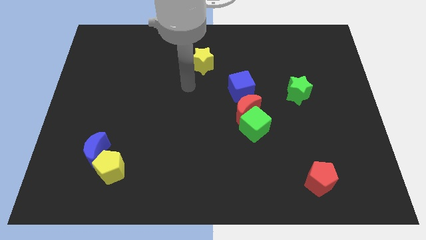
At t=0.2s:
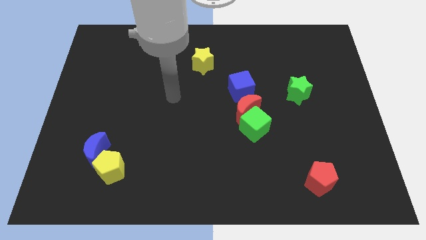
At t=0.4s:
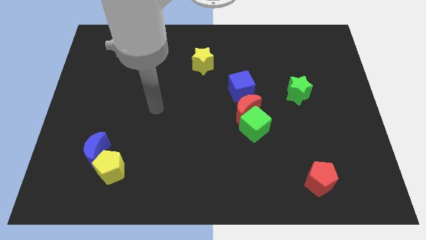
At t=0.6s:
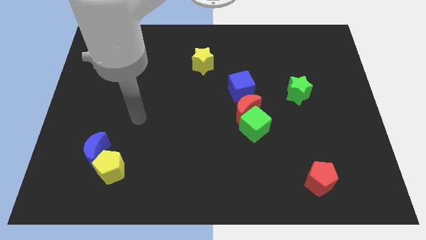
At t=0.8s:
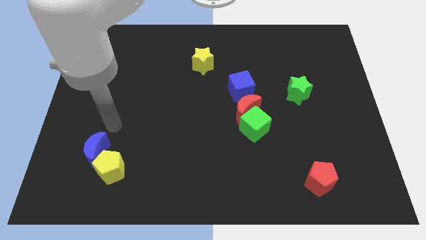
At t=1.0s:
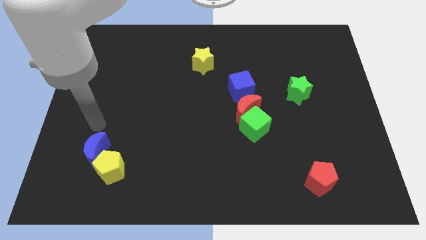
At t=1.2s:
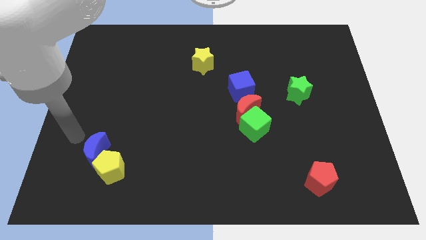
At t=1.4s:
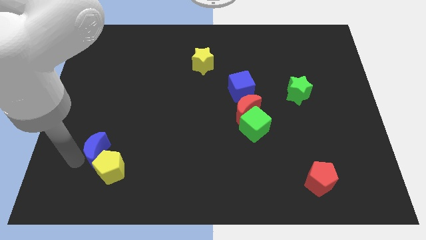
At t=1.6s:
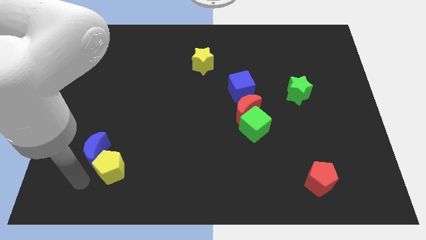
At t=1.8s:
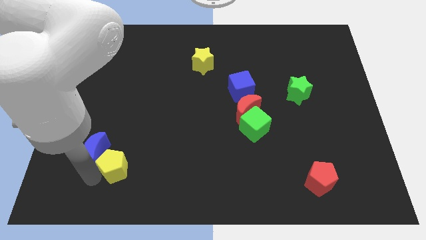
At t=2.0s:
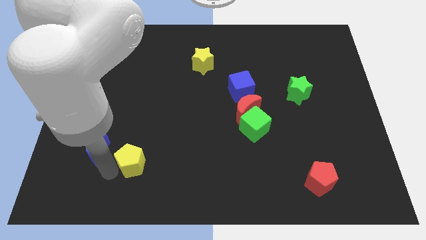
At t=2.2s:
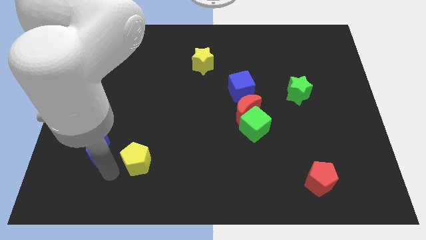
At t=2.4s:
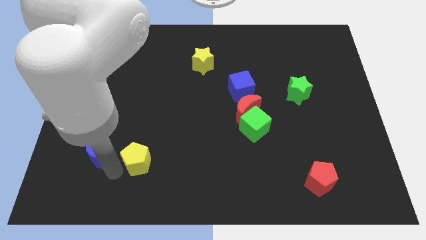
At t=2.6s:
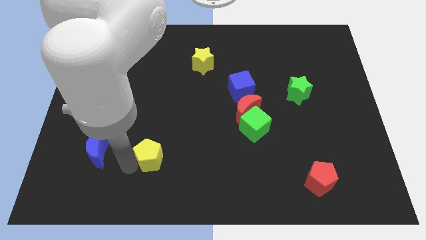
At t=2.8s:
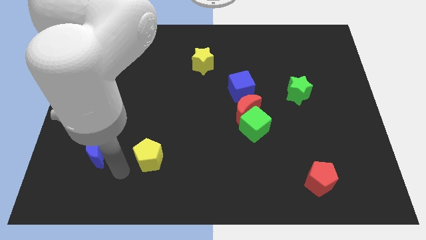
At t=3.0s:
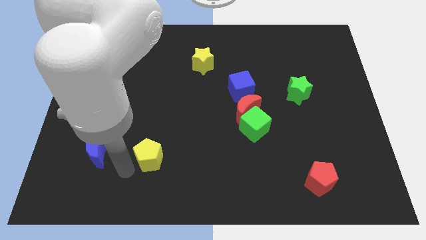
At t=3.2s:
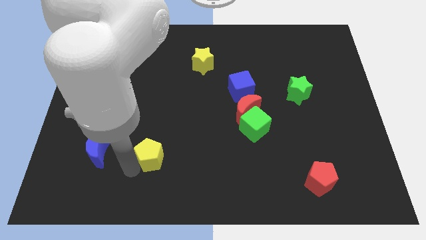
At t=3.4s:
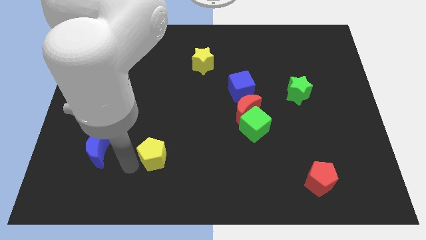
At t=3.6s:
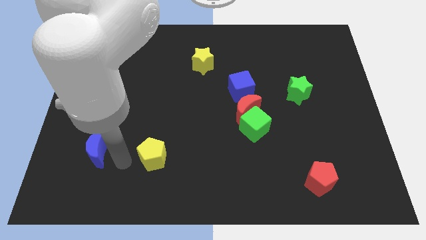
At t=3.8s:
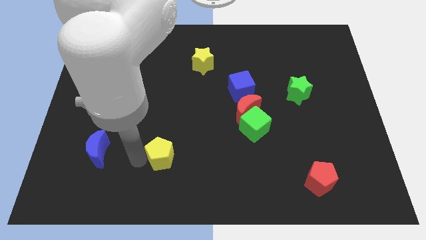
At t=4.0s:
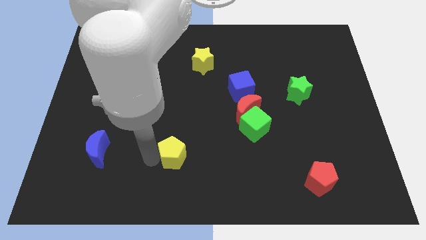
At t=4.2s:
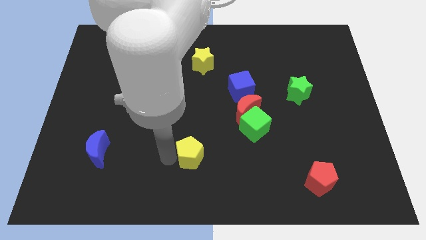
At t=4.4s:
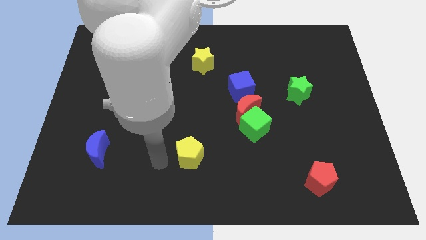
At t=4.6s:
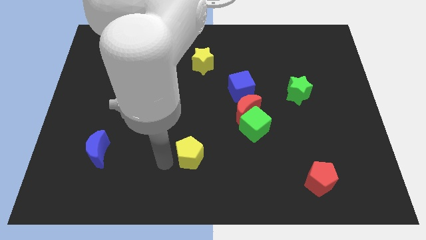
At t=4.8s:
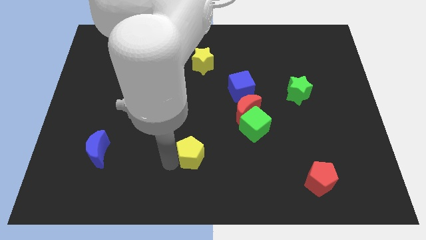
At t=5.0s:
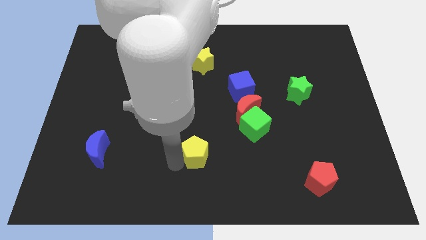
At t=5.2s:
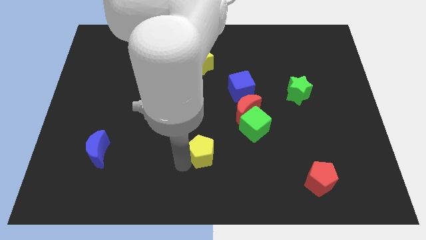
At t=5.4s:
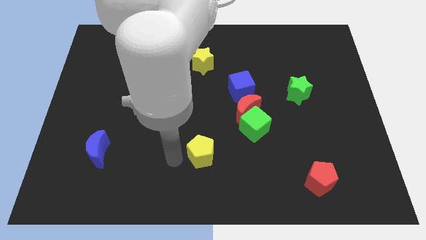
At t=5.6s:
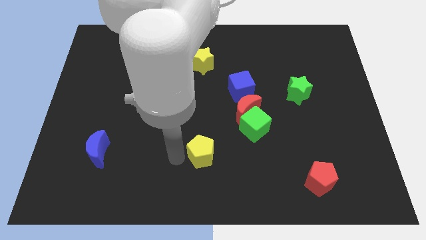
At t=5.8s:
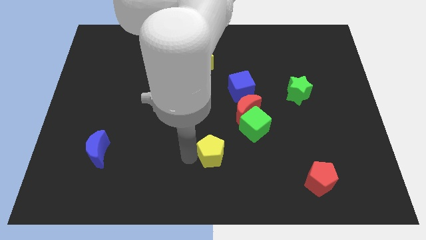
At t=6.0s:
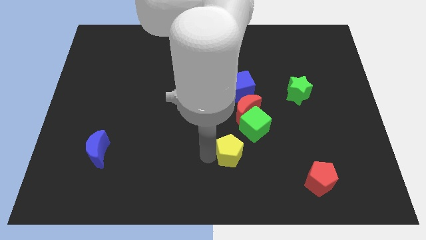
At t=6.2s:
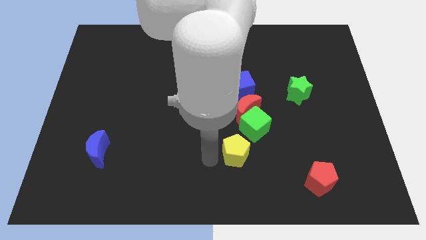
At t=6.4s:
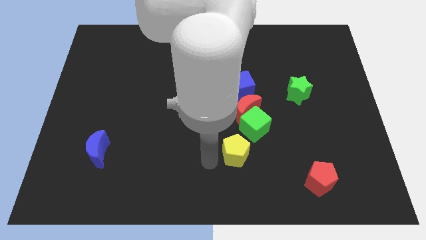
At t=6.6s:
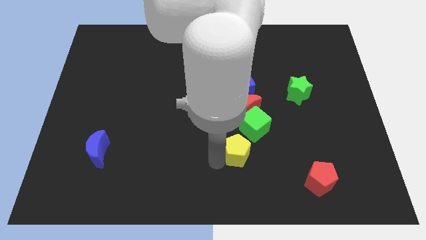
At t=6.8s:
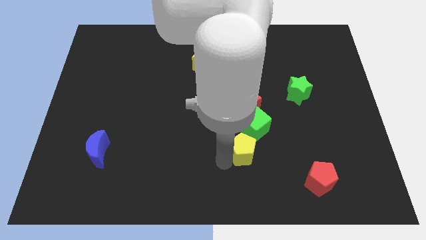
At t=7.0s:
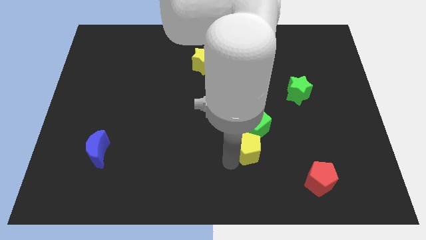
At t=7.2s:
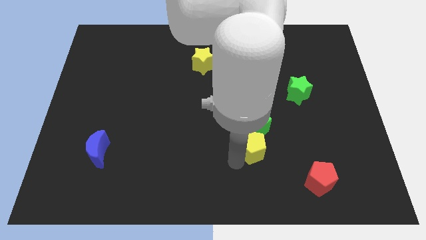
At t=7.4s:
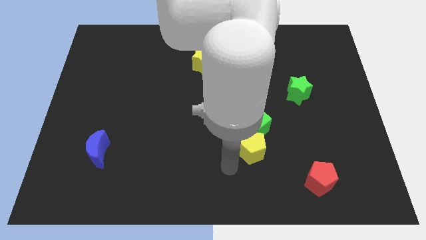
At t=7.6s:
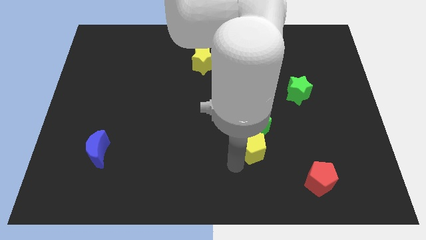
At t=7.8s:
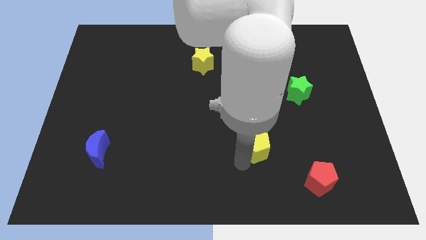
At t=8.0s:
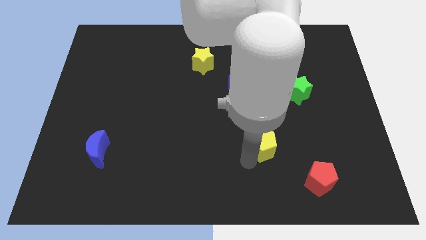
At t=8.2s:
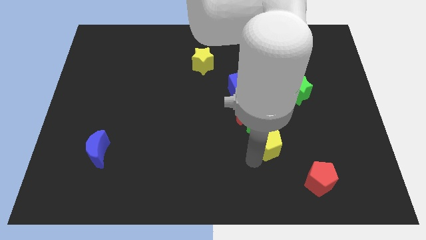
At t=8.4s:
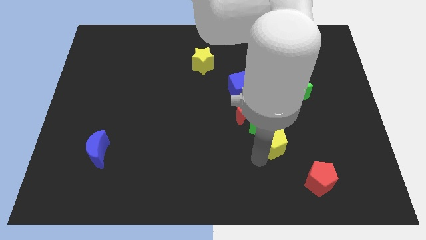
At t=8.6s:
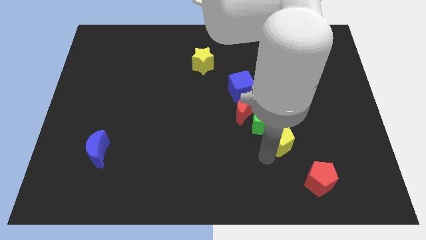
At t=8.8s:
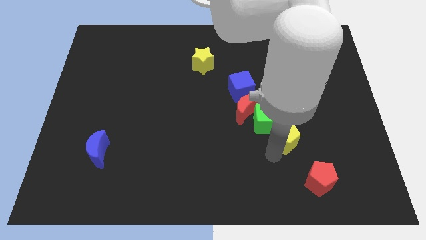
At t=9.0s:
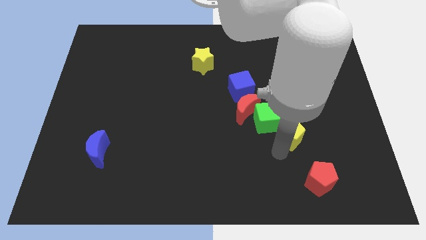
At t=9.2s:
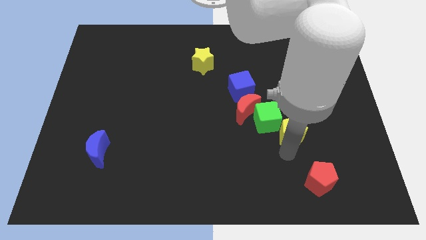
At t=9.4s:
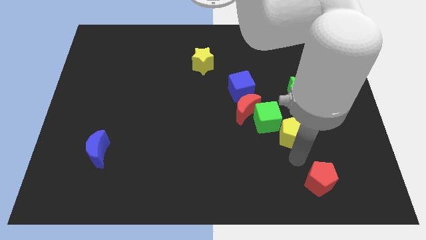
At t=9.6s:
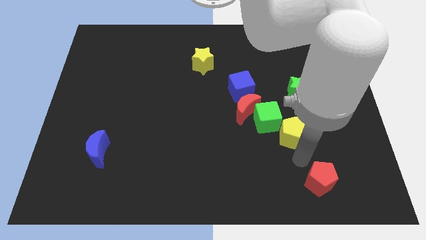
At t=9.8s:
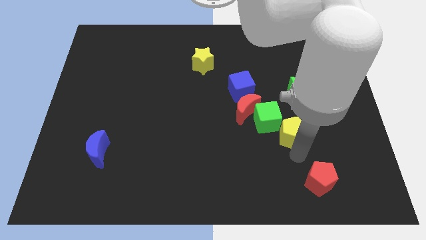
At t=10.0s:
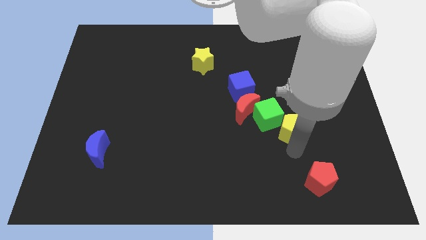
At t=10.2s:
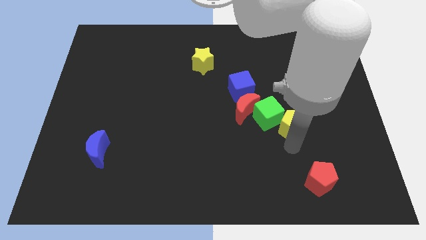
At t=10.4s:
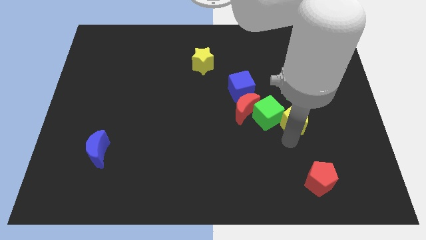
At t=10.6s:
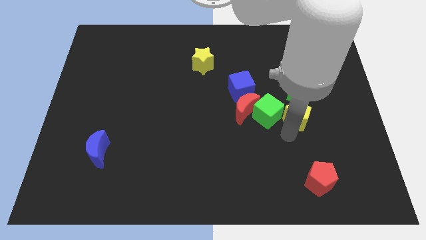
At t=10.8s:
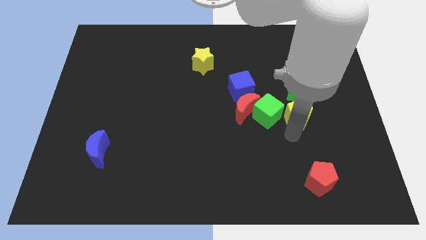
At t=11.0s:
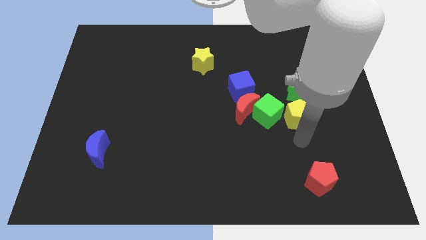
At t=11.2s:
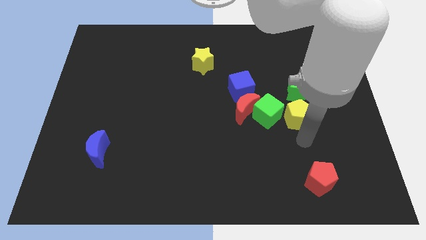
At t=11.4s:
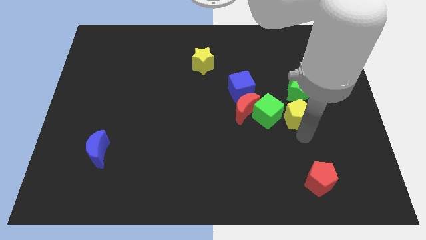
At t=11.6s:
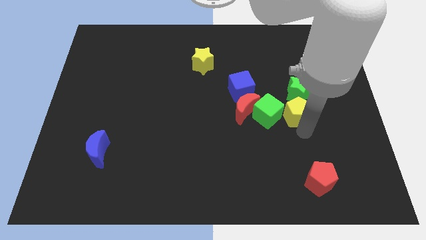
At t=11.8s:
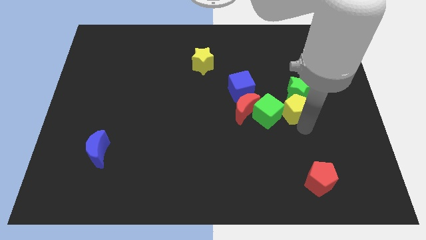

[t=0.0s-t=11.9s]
push the yellow pentagon close to the green star

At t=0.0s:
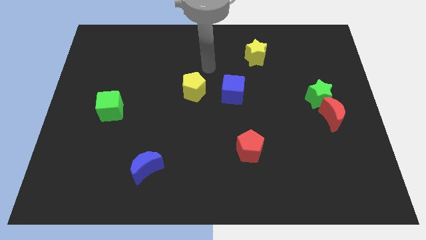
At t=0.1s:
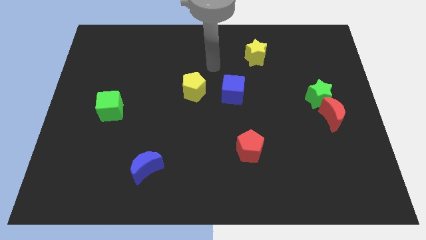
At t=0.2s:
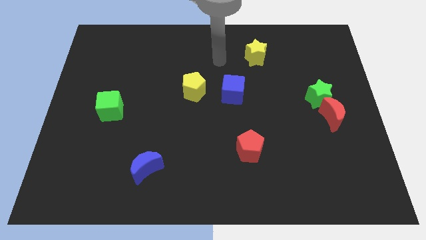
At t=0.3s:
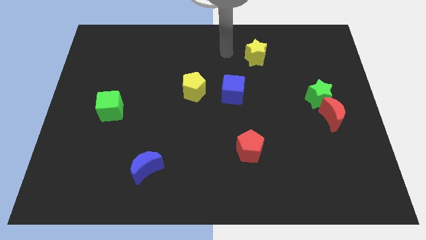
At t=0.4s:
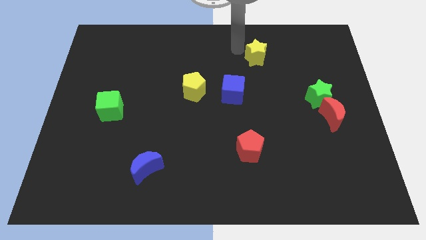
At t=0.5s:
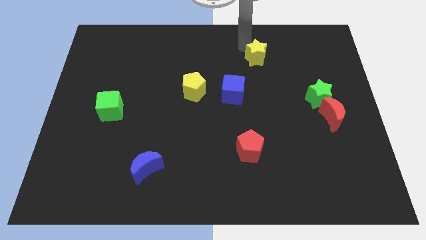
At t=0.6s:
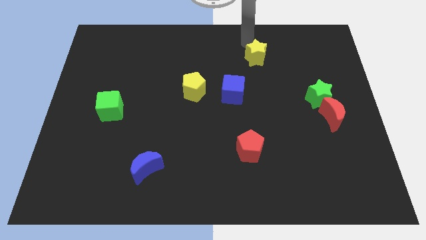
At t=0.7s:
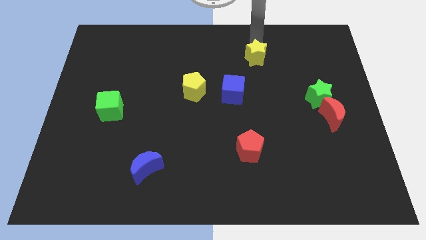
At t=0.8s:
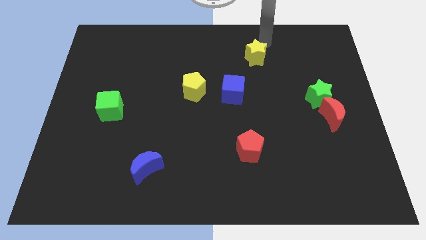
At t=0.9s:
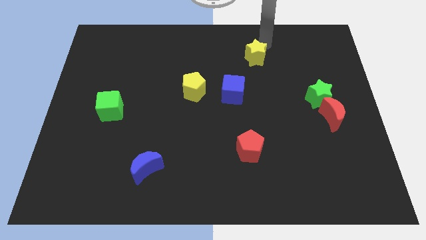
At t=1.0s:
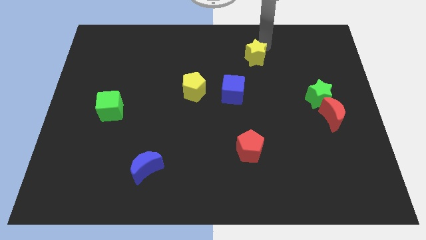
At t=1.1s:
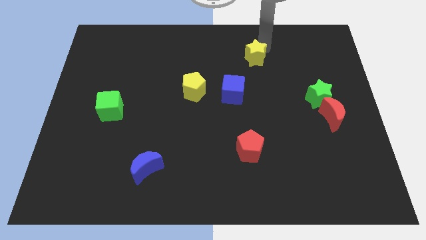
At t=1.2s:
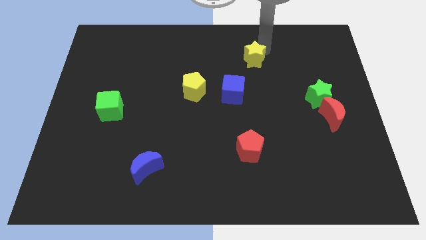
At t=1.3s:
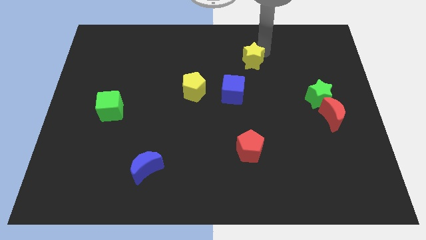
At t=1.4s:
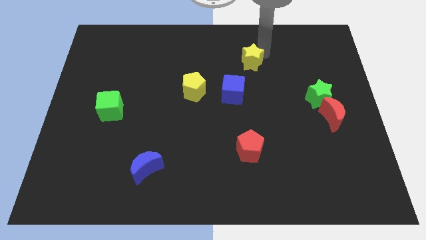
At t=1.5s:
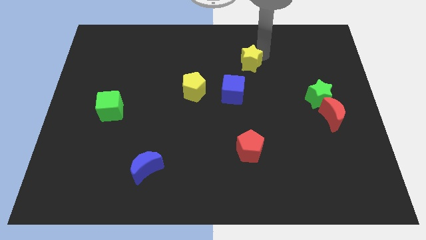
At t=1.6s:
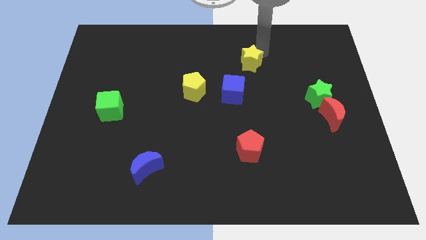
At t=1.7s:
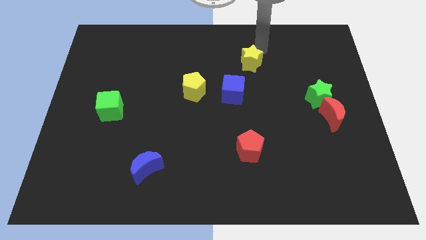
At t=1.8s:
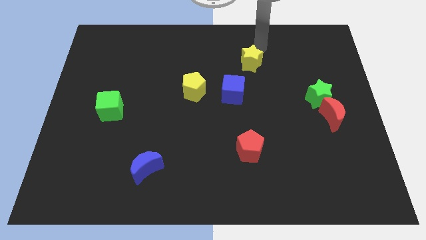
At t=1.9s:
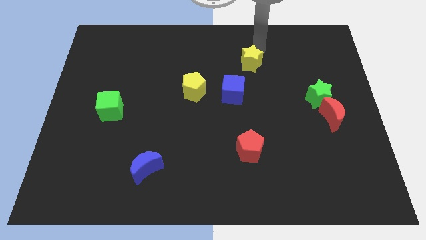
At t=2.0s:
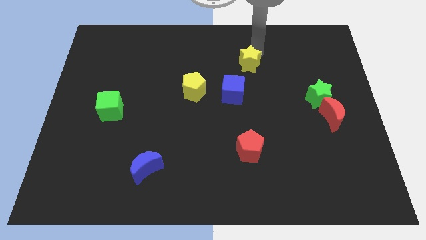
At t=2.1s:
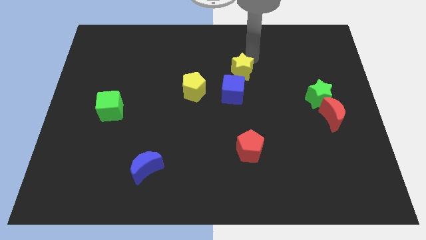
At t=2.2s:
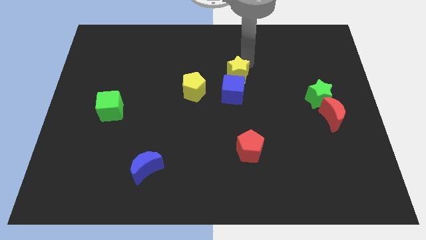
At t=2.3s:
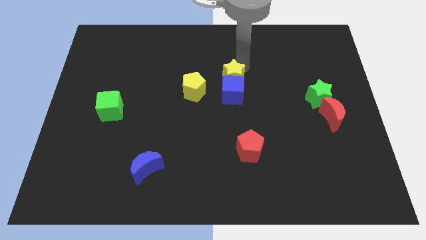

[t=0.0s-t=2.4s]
slide the yellow star next to the blue cube
